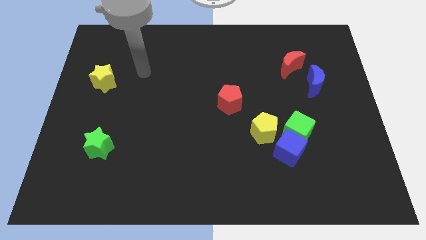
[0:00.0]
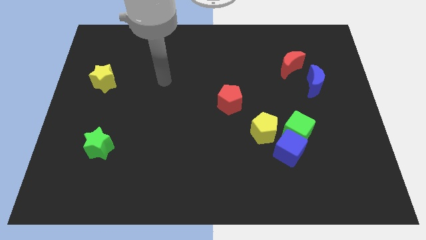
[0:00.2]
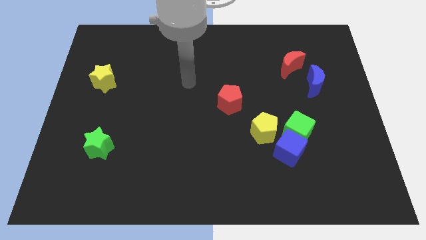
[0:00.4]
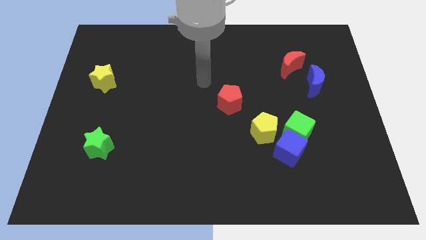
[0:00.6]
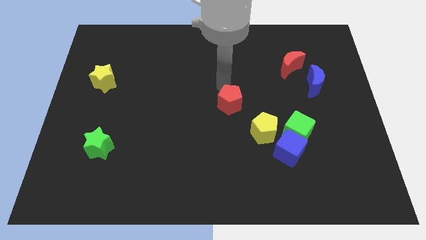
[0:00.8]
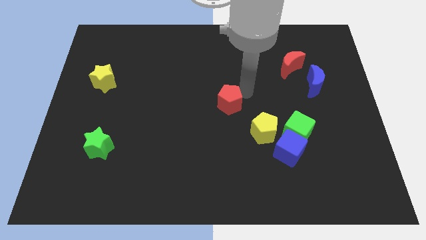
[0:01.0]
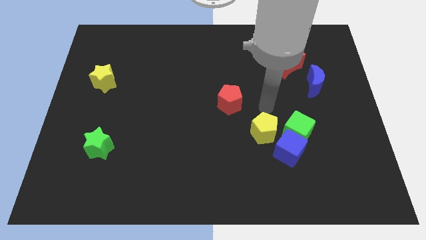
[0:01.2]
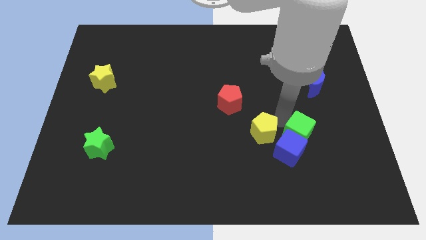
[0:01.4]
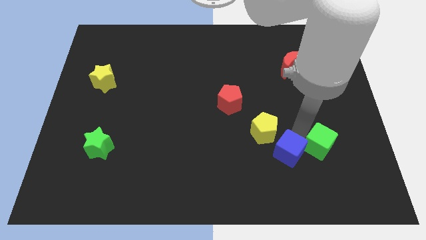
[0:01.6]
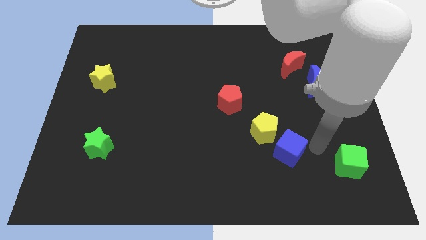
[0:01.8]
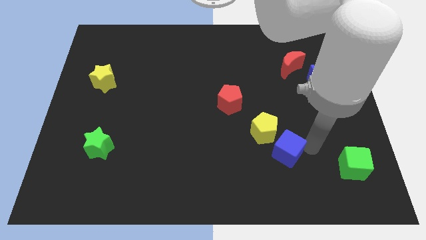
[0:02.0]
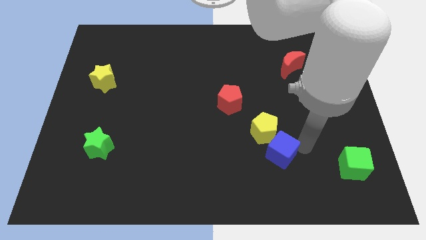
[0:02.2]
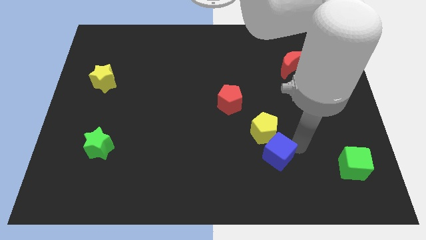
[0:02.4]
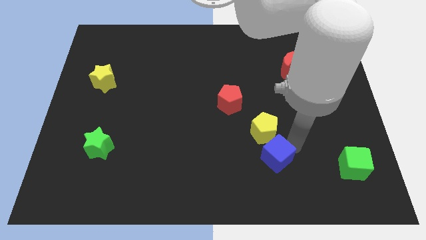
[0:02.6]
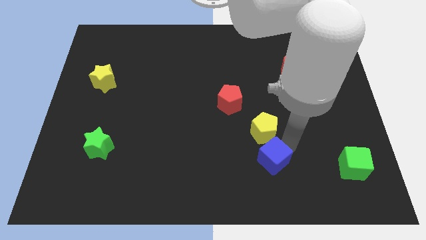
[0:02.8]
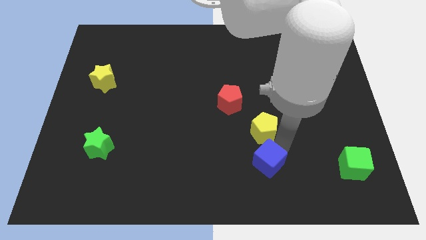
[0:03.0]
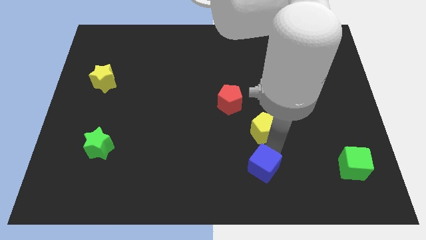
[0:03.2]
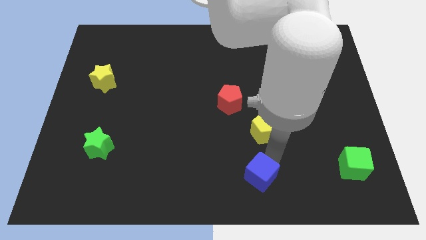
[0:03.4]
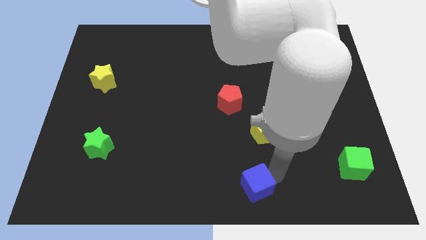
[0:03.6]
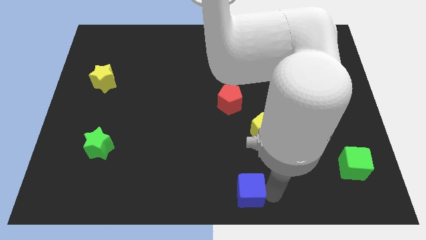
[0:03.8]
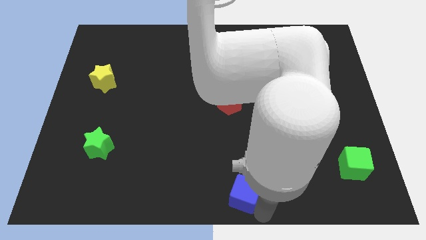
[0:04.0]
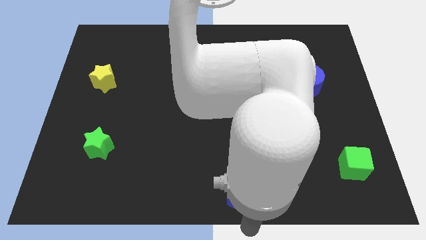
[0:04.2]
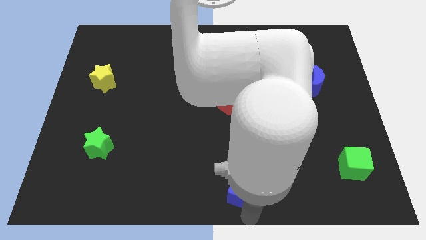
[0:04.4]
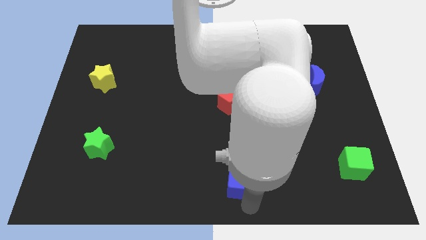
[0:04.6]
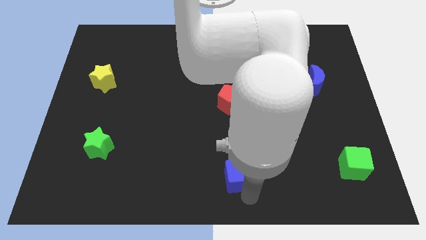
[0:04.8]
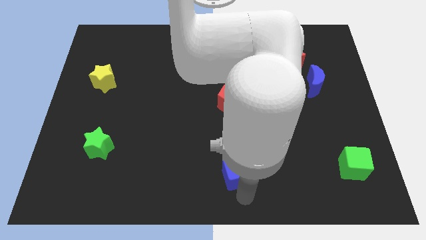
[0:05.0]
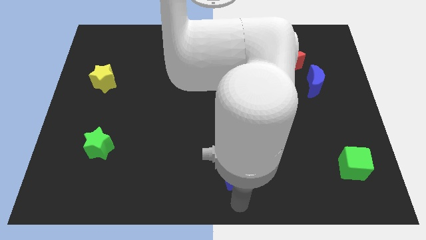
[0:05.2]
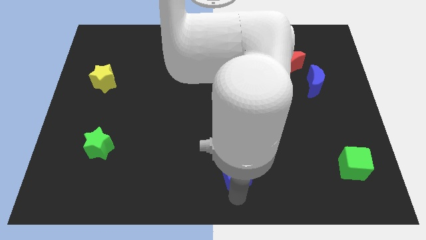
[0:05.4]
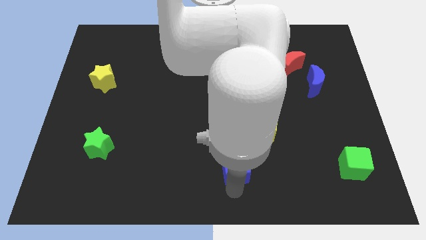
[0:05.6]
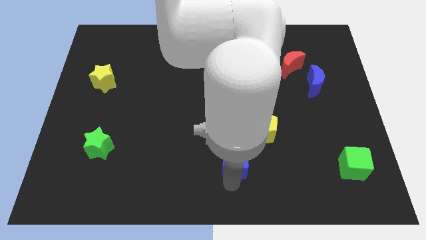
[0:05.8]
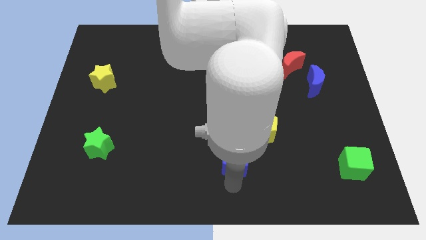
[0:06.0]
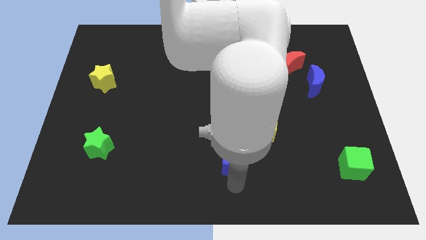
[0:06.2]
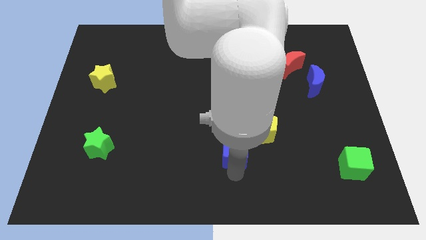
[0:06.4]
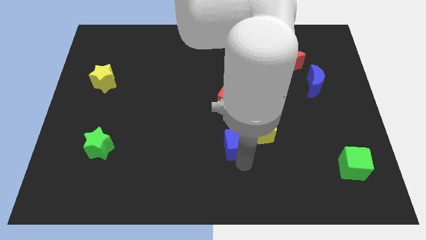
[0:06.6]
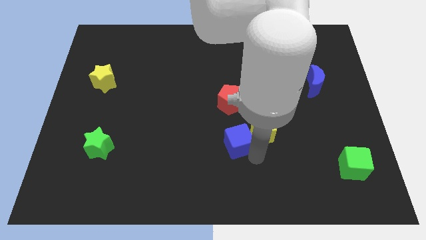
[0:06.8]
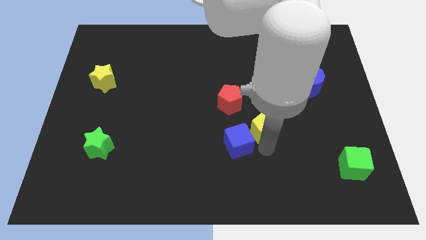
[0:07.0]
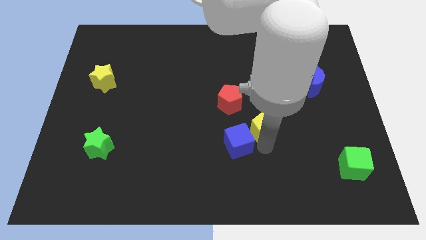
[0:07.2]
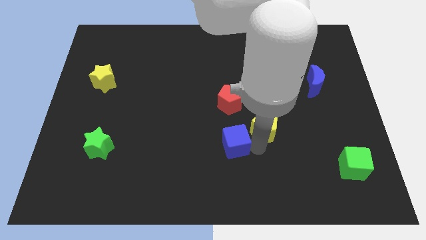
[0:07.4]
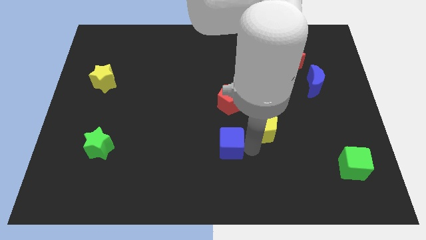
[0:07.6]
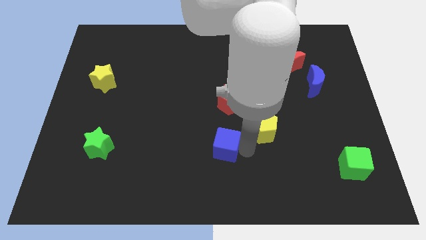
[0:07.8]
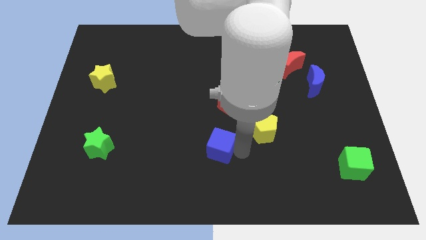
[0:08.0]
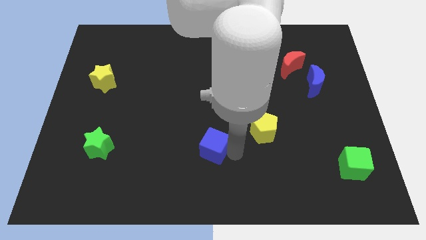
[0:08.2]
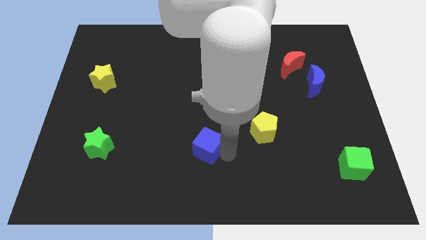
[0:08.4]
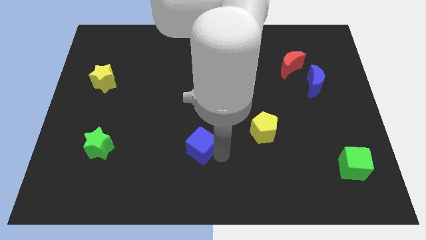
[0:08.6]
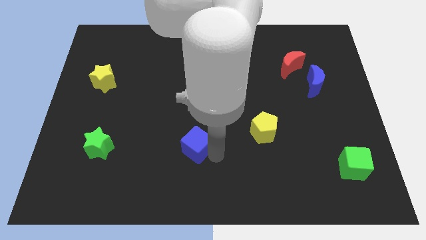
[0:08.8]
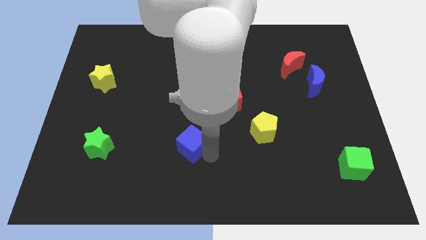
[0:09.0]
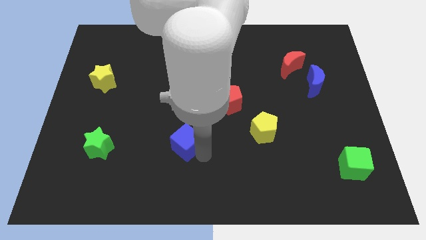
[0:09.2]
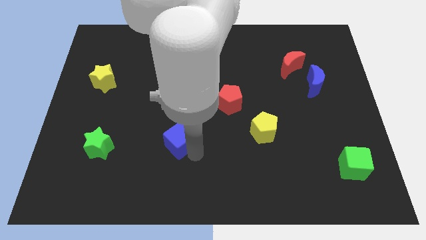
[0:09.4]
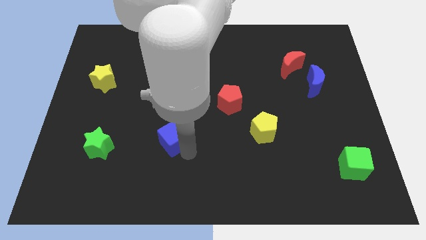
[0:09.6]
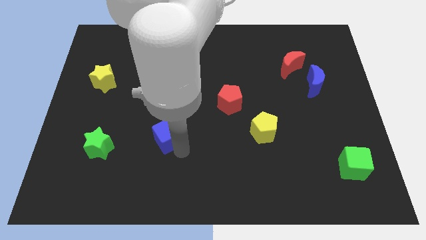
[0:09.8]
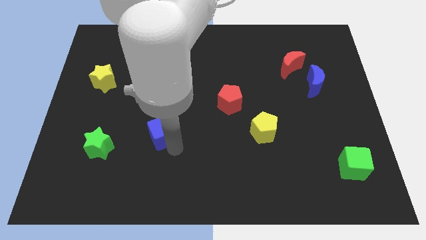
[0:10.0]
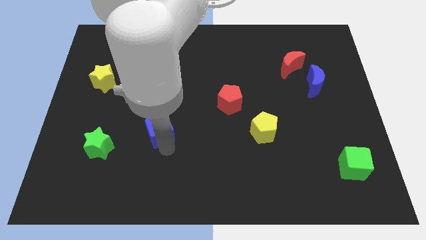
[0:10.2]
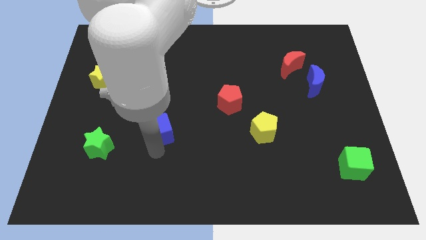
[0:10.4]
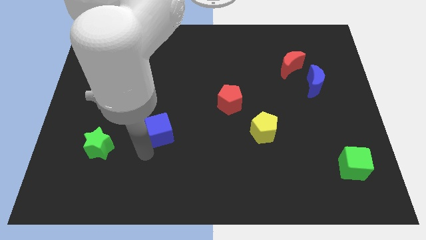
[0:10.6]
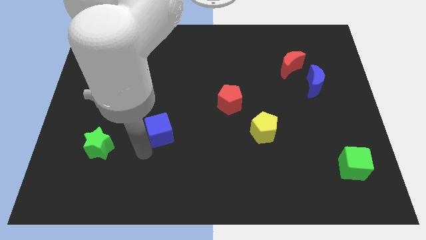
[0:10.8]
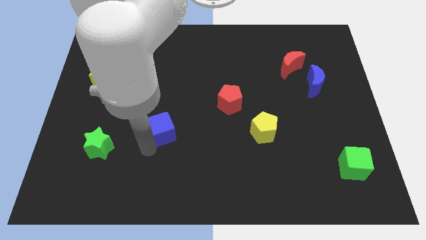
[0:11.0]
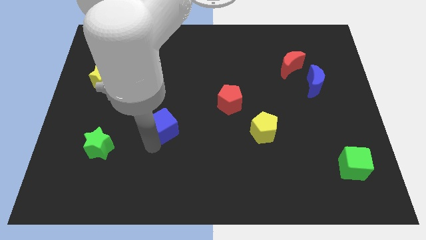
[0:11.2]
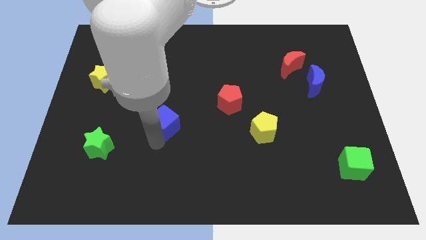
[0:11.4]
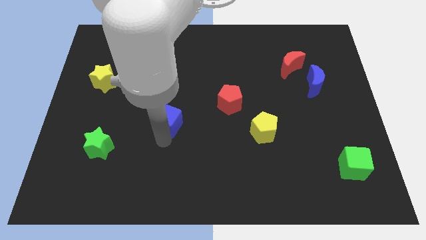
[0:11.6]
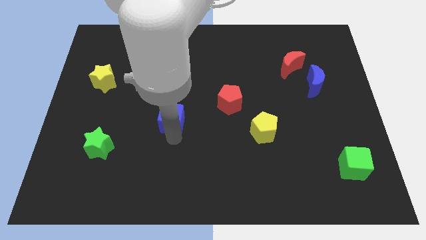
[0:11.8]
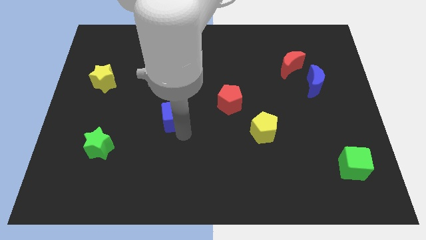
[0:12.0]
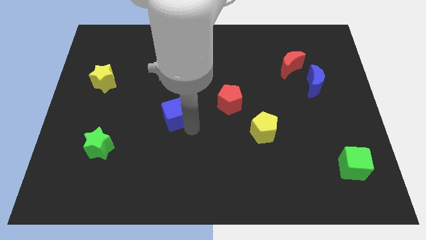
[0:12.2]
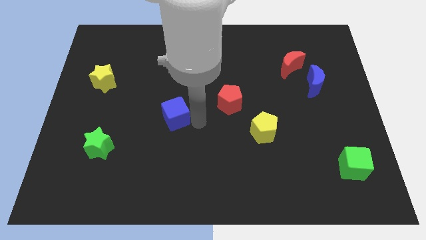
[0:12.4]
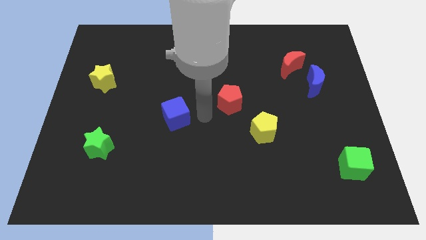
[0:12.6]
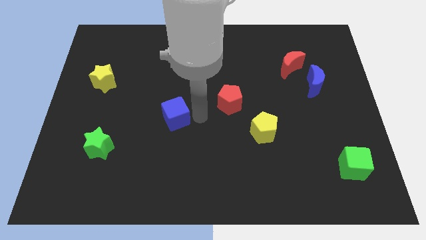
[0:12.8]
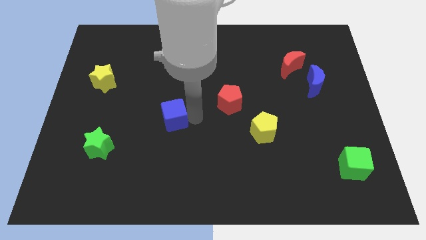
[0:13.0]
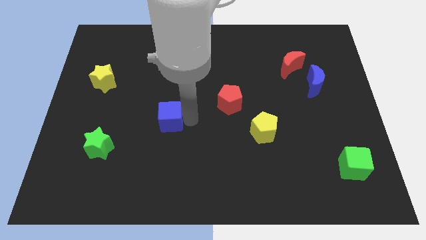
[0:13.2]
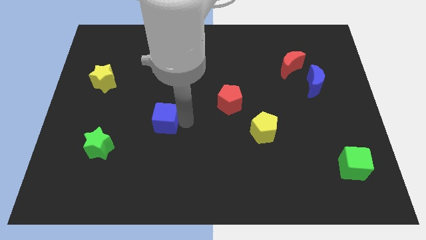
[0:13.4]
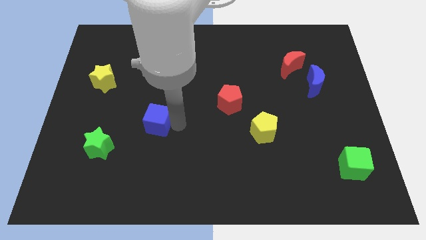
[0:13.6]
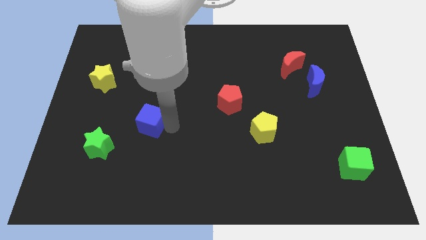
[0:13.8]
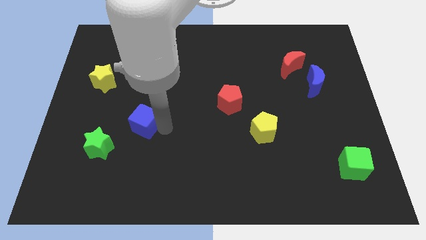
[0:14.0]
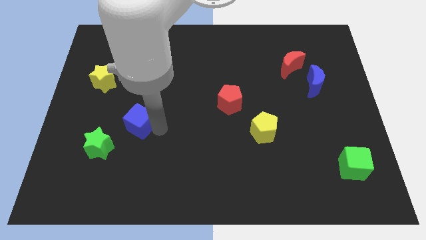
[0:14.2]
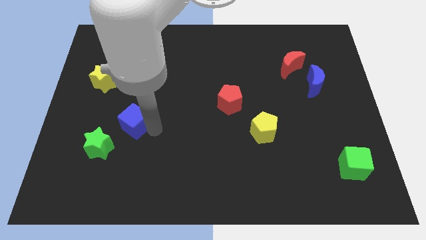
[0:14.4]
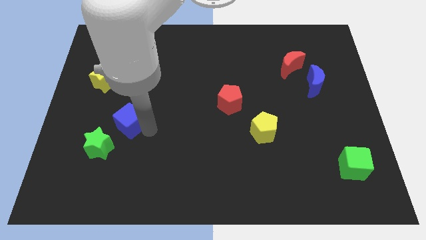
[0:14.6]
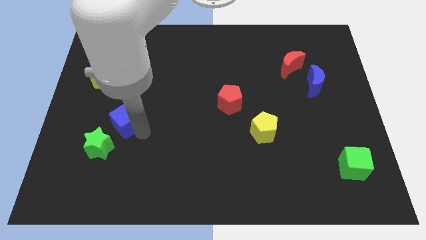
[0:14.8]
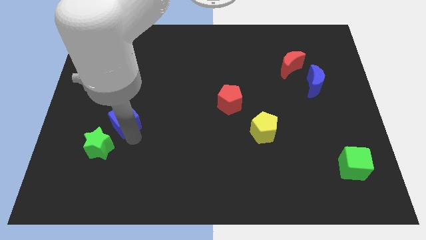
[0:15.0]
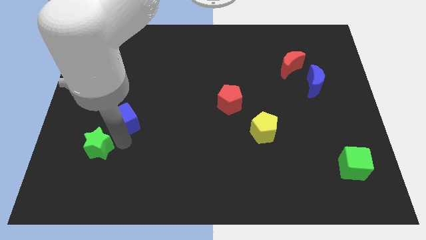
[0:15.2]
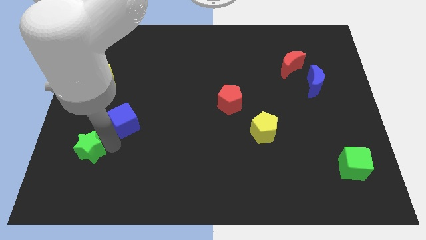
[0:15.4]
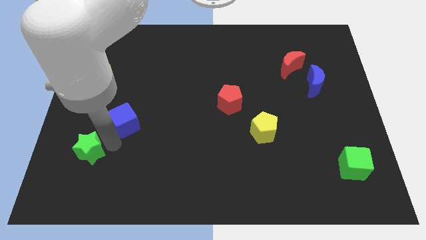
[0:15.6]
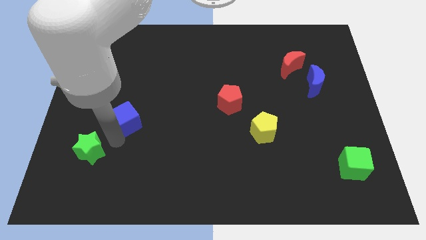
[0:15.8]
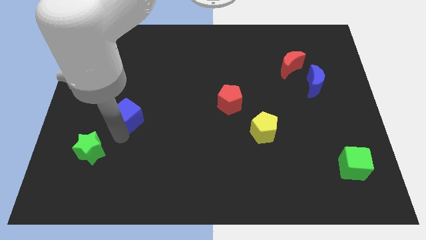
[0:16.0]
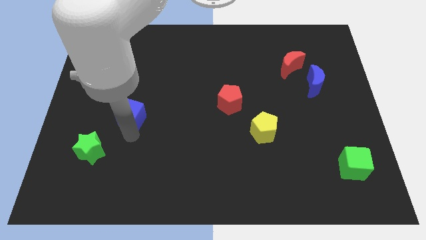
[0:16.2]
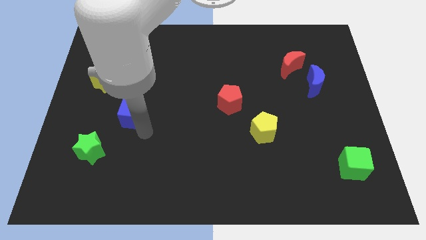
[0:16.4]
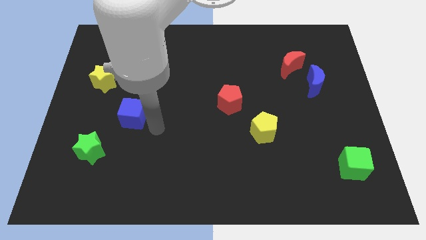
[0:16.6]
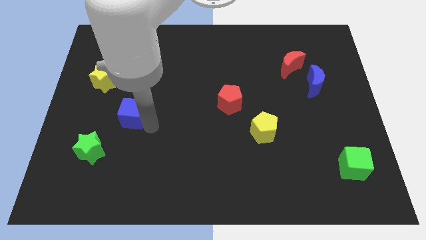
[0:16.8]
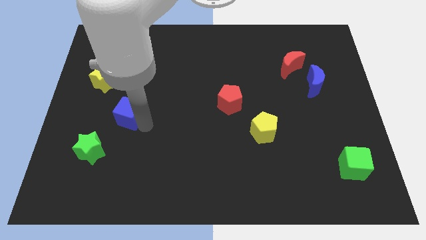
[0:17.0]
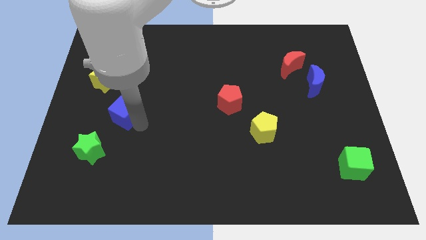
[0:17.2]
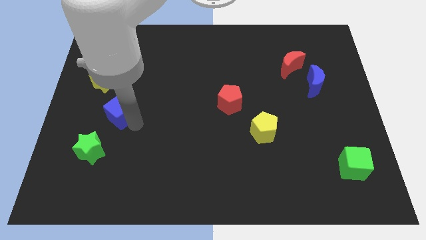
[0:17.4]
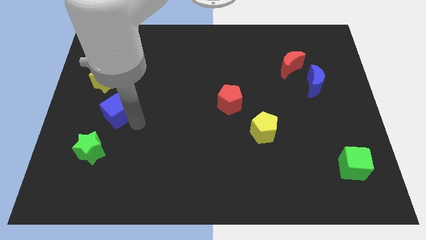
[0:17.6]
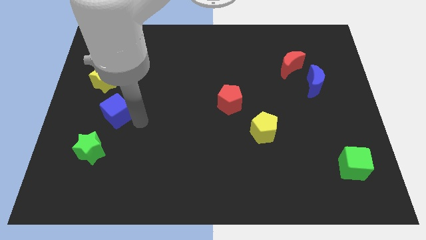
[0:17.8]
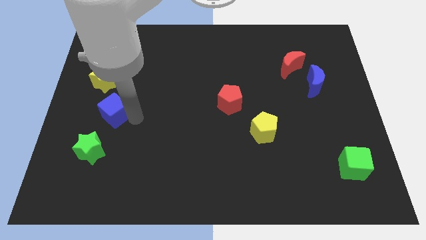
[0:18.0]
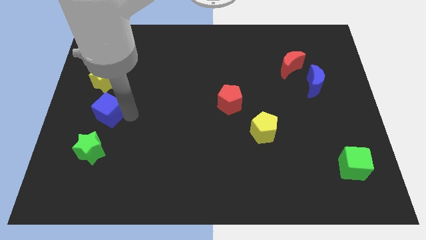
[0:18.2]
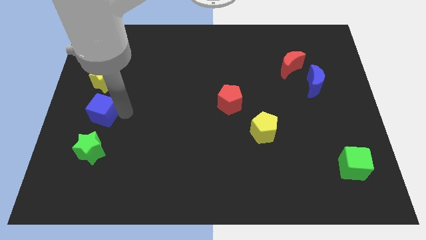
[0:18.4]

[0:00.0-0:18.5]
slide the blue cube to the left side of the board
